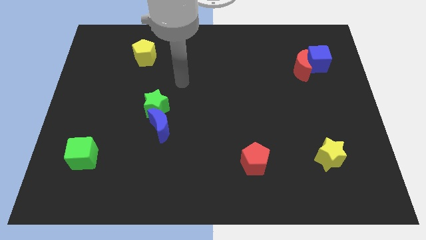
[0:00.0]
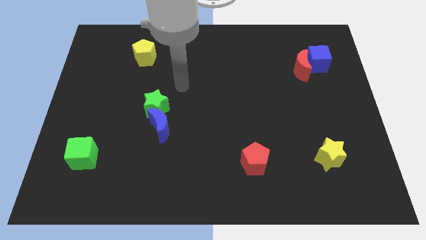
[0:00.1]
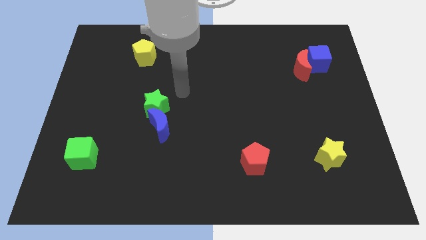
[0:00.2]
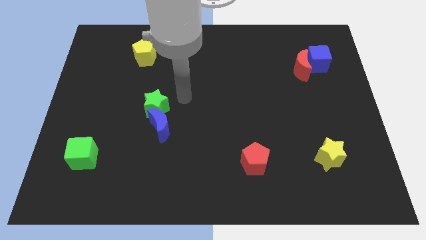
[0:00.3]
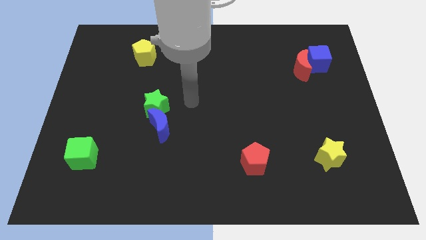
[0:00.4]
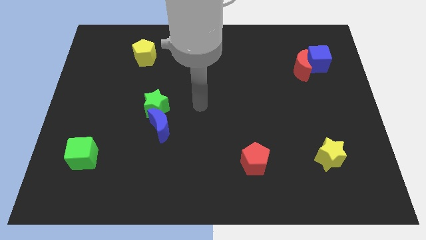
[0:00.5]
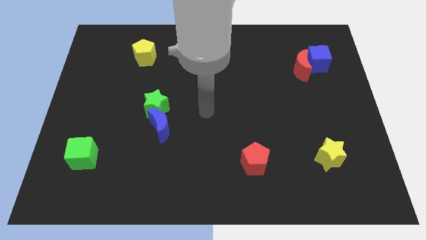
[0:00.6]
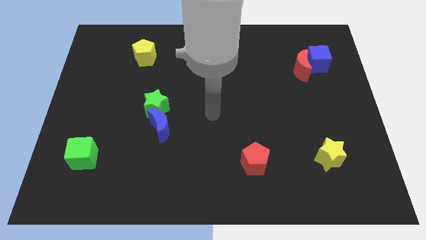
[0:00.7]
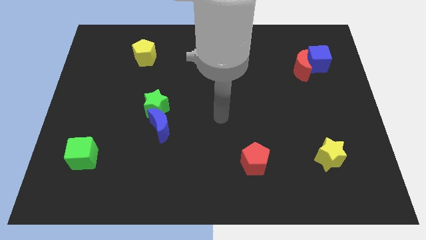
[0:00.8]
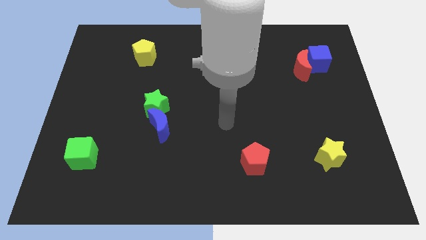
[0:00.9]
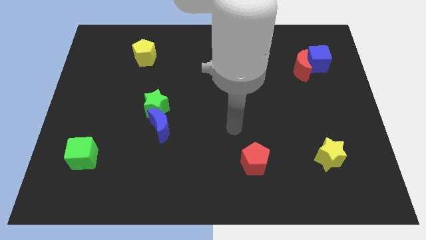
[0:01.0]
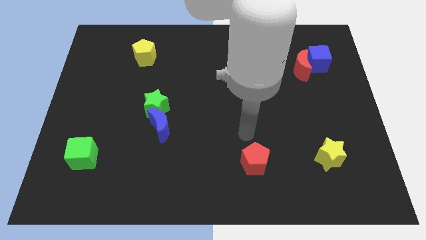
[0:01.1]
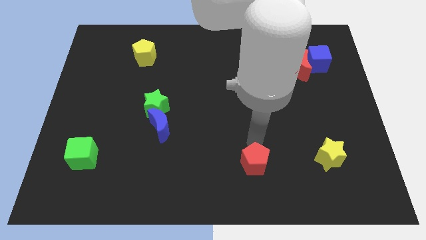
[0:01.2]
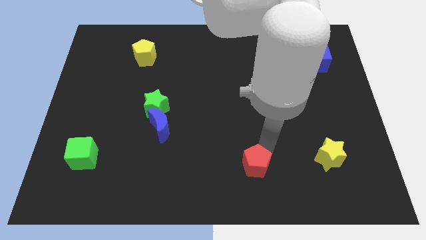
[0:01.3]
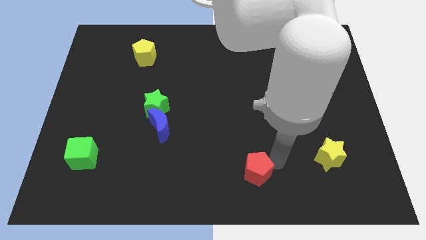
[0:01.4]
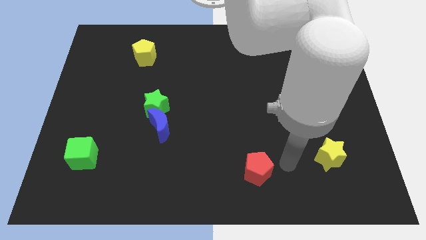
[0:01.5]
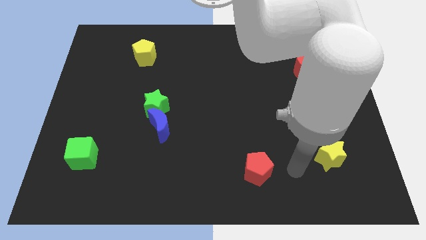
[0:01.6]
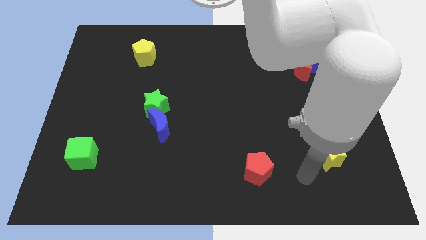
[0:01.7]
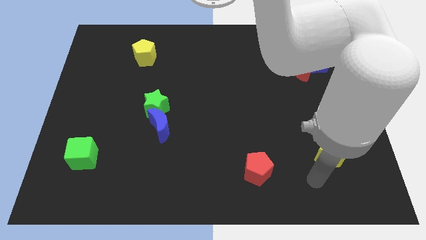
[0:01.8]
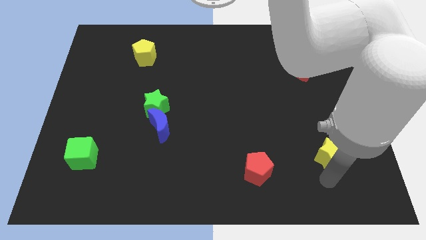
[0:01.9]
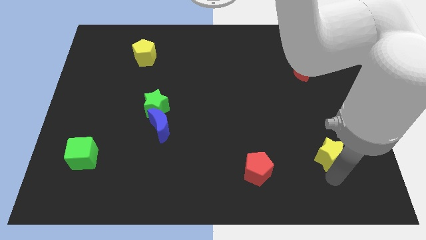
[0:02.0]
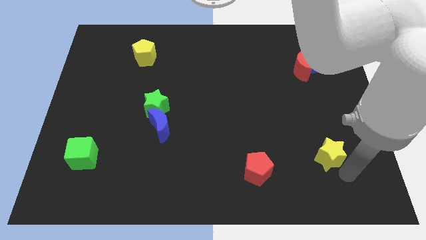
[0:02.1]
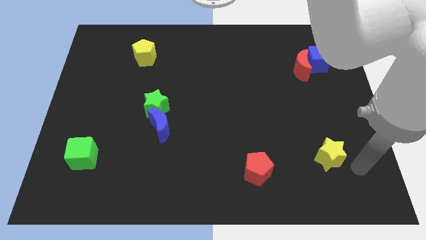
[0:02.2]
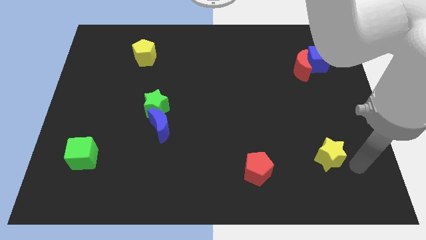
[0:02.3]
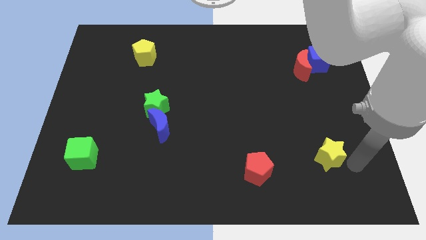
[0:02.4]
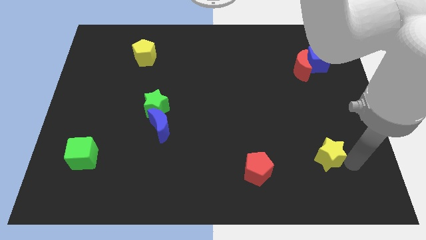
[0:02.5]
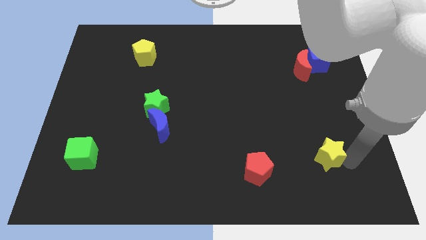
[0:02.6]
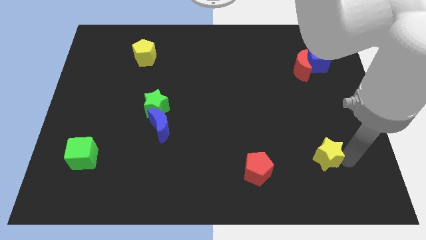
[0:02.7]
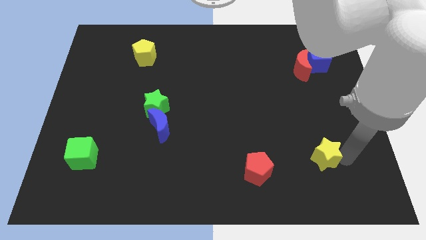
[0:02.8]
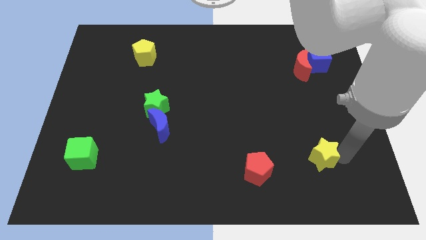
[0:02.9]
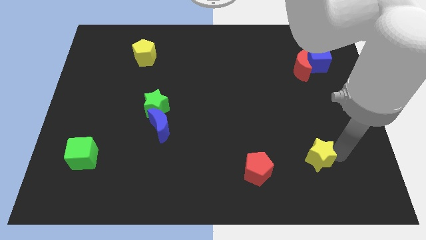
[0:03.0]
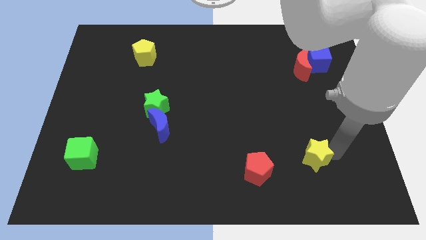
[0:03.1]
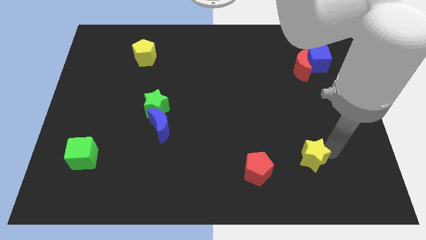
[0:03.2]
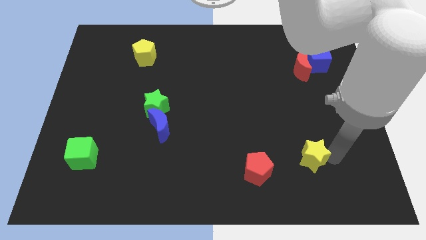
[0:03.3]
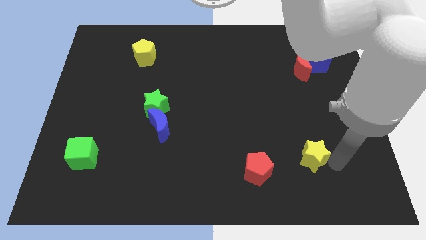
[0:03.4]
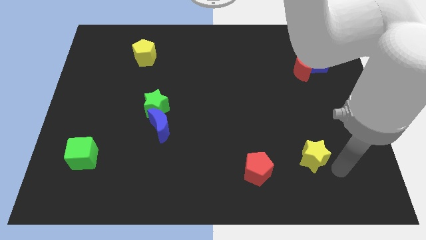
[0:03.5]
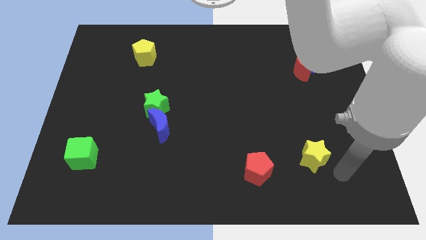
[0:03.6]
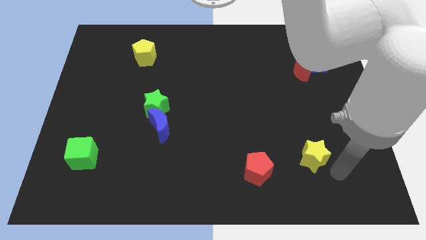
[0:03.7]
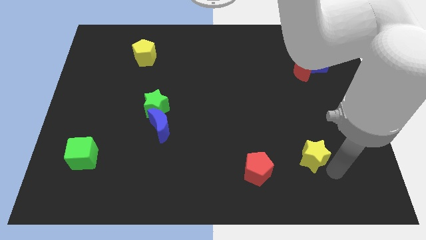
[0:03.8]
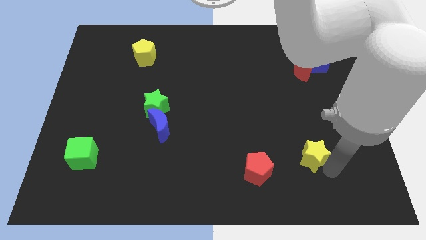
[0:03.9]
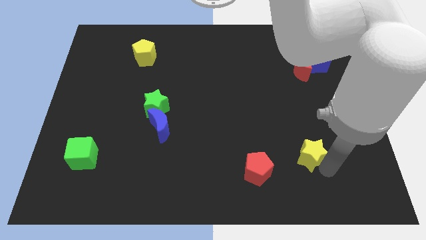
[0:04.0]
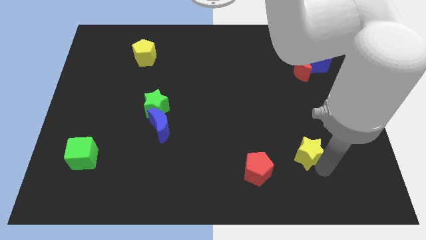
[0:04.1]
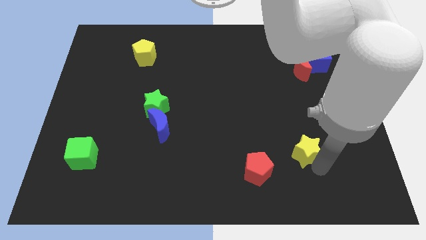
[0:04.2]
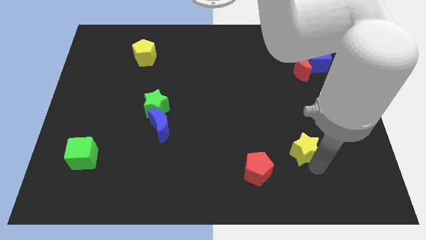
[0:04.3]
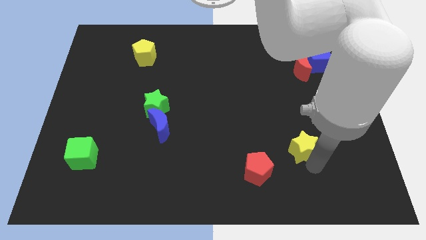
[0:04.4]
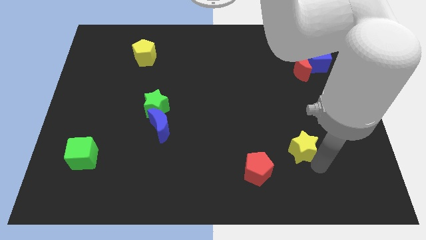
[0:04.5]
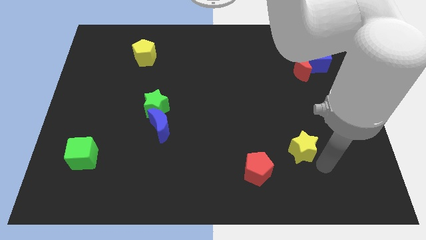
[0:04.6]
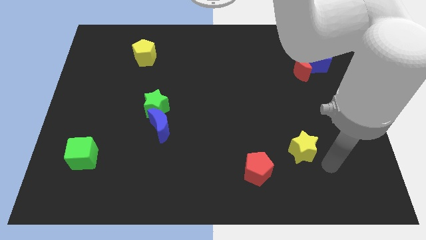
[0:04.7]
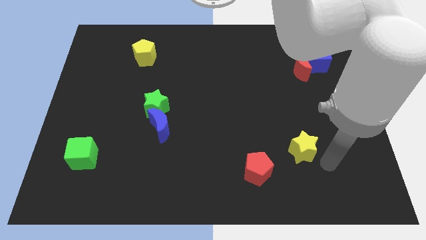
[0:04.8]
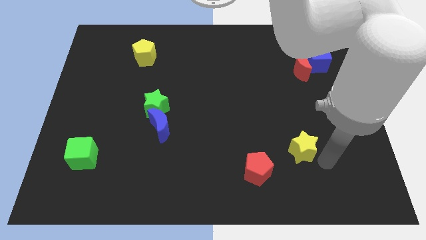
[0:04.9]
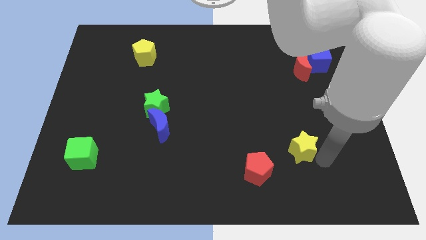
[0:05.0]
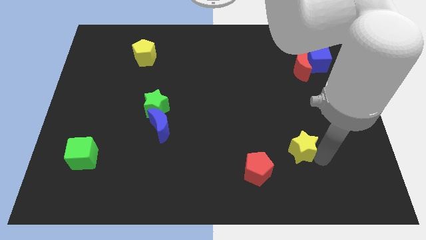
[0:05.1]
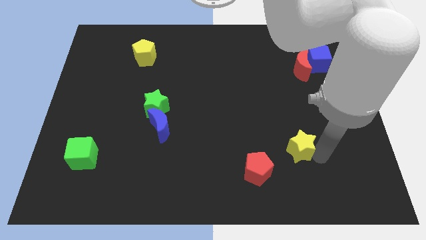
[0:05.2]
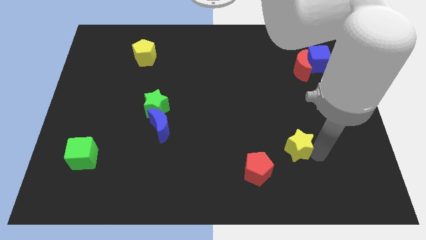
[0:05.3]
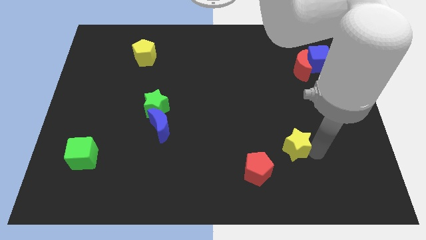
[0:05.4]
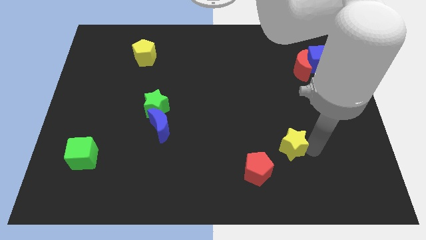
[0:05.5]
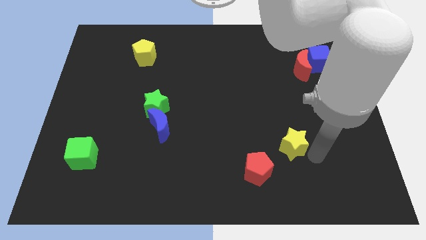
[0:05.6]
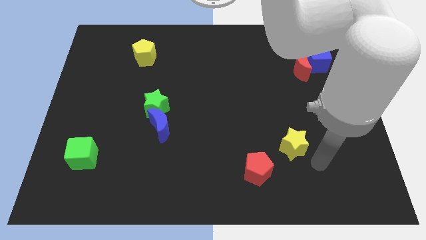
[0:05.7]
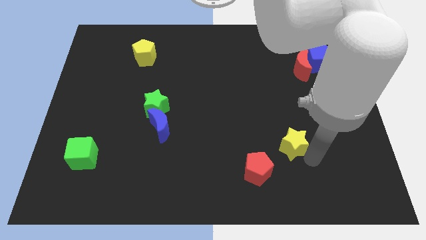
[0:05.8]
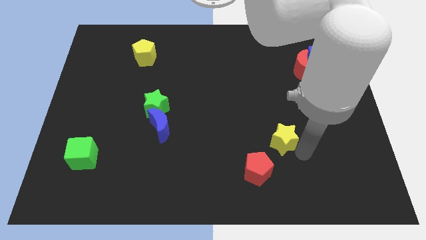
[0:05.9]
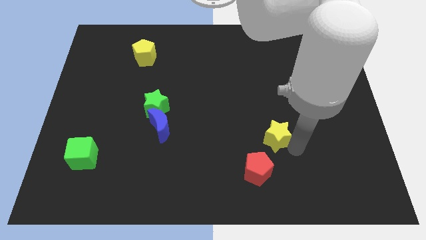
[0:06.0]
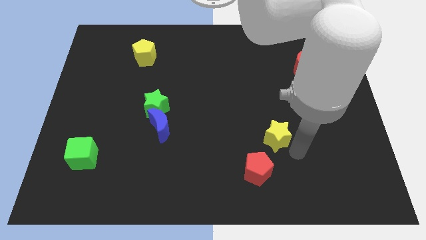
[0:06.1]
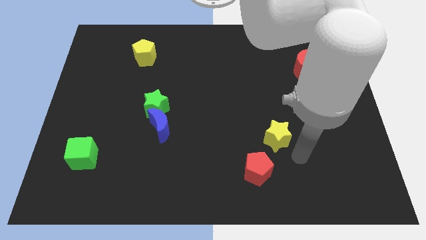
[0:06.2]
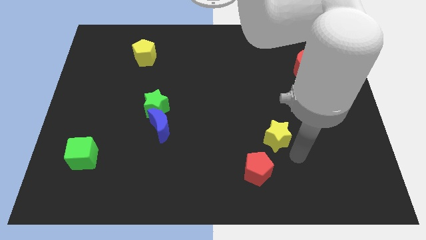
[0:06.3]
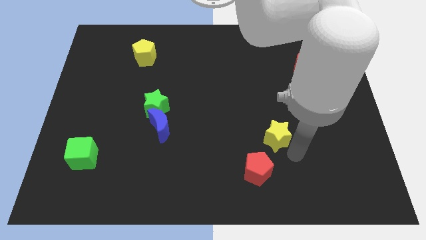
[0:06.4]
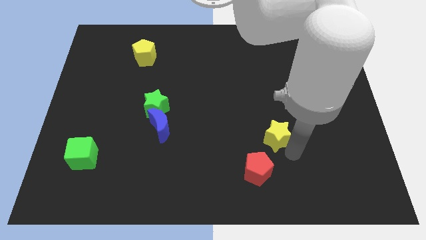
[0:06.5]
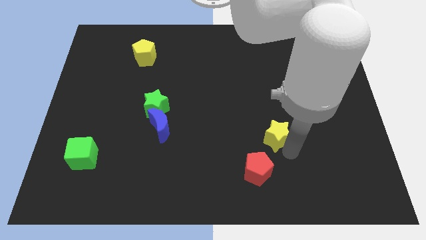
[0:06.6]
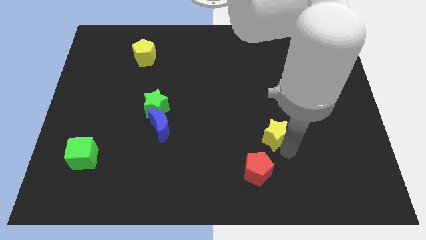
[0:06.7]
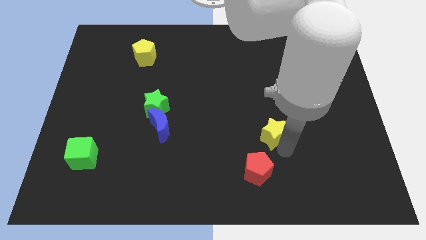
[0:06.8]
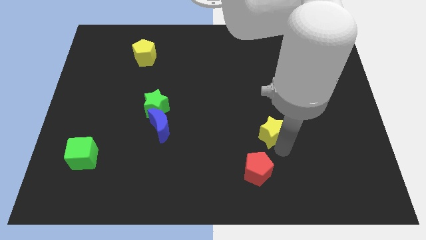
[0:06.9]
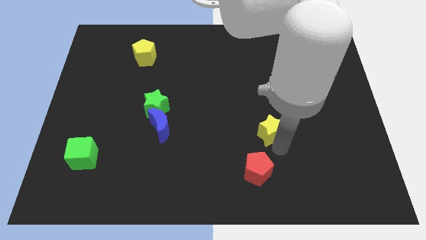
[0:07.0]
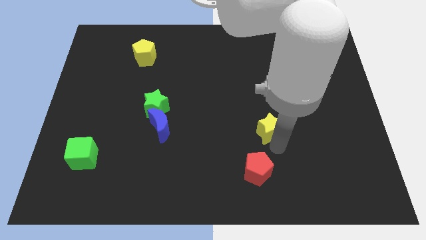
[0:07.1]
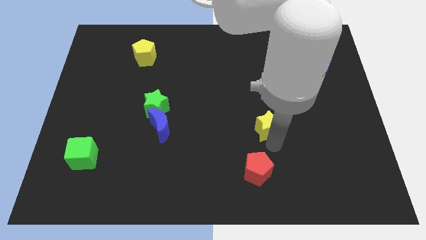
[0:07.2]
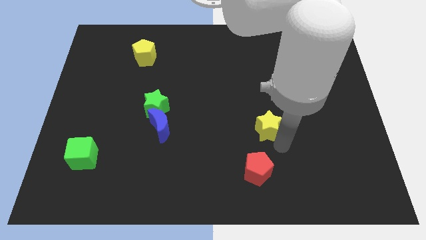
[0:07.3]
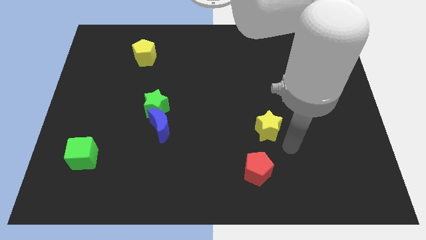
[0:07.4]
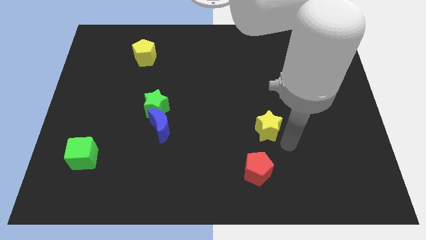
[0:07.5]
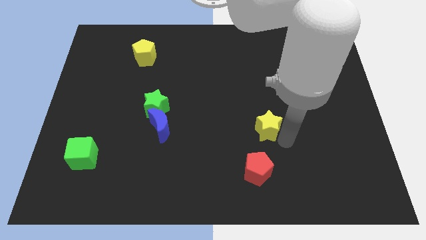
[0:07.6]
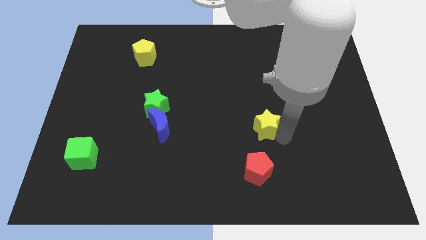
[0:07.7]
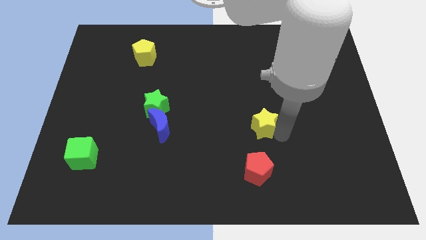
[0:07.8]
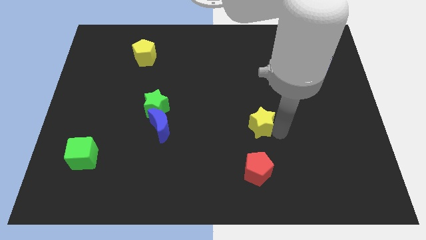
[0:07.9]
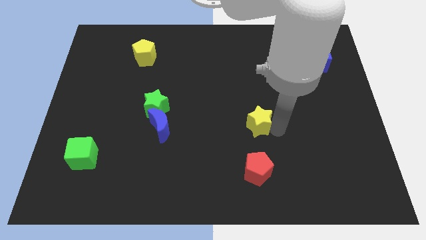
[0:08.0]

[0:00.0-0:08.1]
put the yellow star to the center of the board
